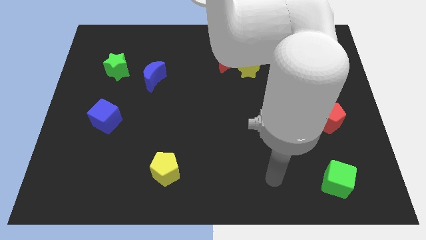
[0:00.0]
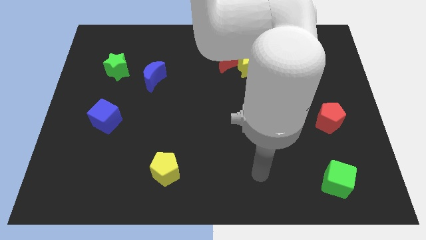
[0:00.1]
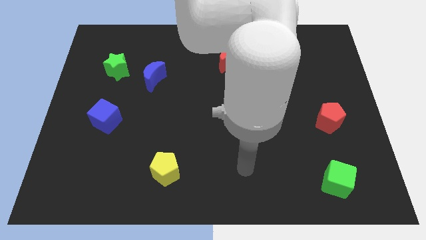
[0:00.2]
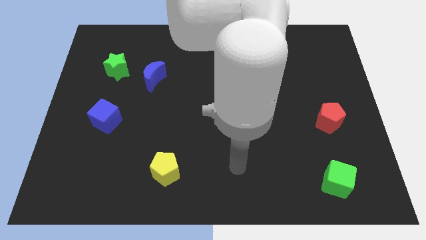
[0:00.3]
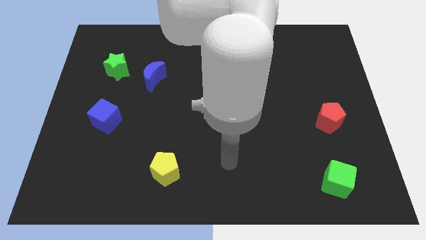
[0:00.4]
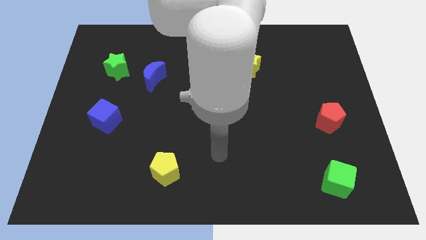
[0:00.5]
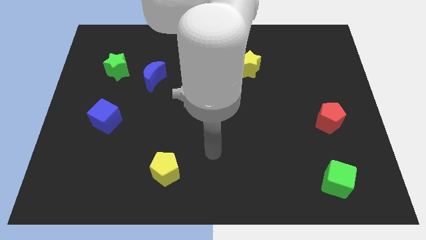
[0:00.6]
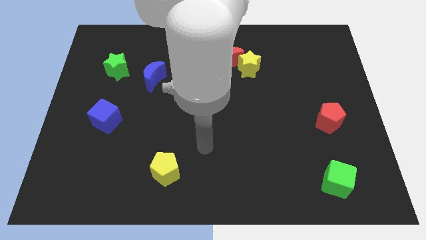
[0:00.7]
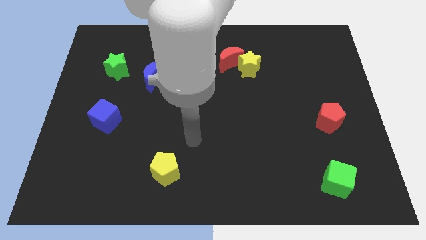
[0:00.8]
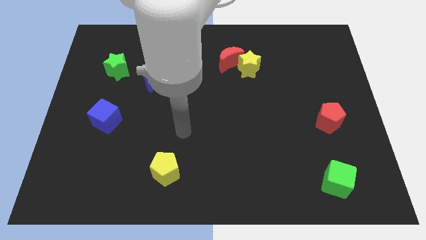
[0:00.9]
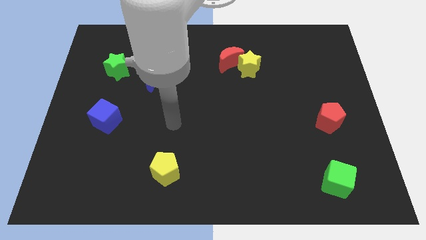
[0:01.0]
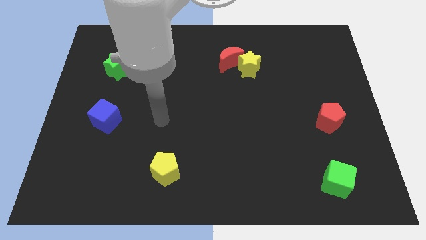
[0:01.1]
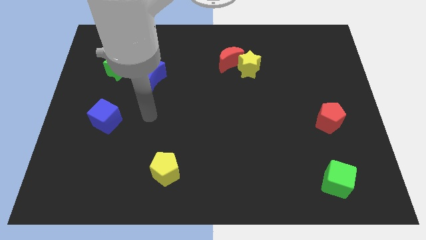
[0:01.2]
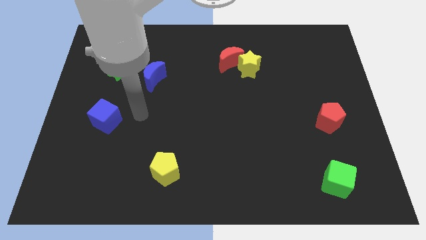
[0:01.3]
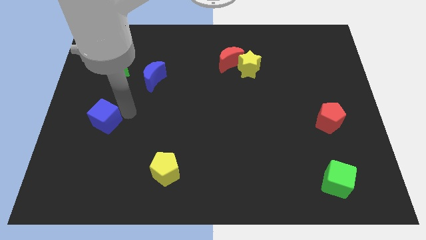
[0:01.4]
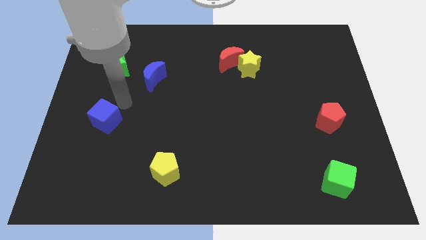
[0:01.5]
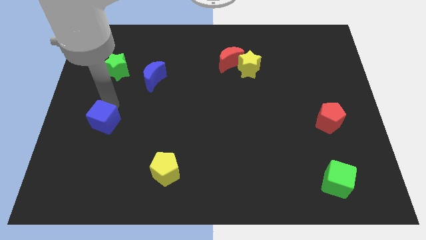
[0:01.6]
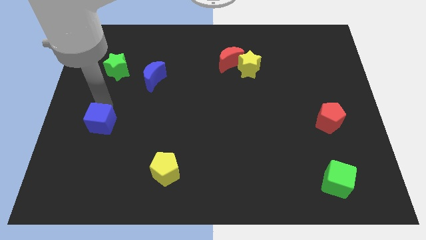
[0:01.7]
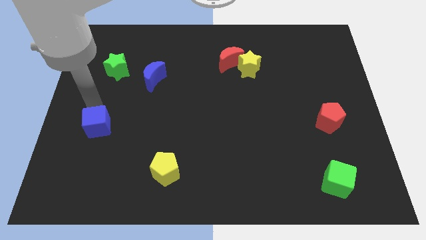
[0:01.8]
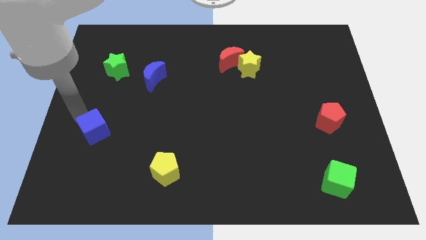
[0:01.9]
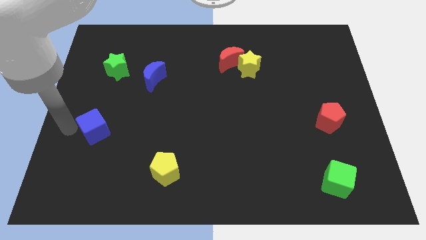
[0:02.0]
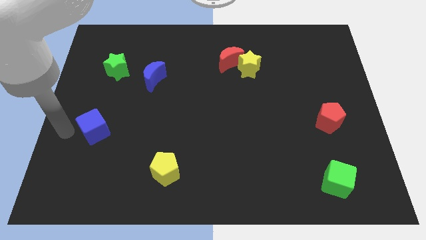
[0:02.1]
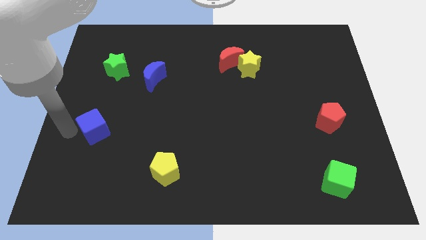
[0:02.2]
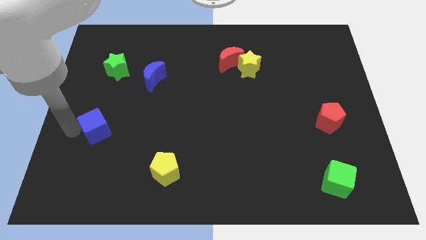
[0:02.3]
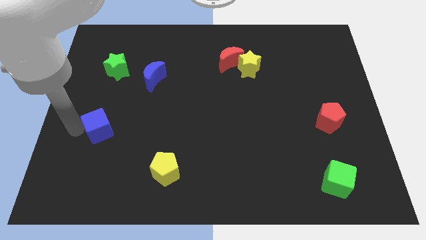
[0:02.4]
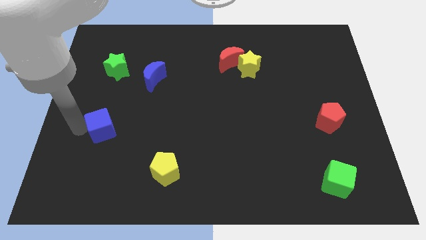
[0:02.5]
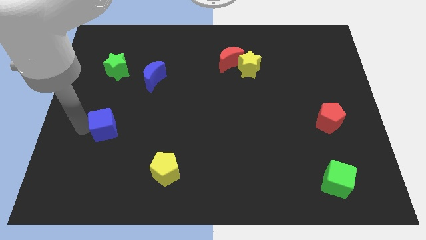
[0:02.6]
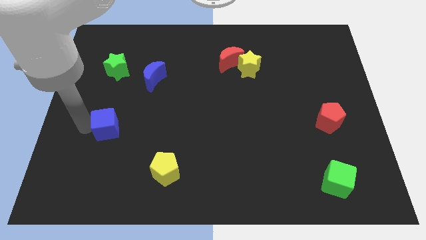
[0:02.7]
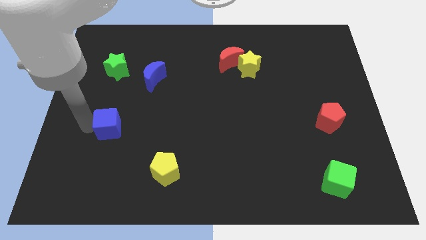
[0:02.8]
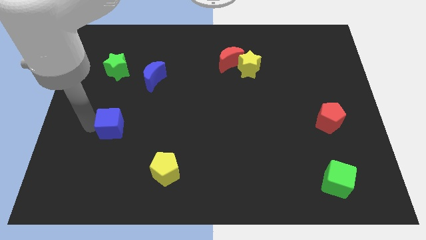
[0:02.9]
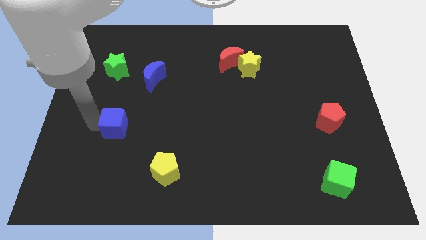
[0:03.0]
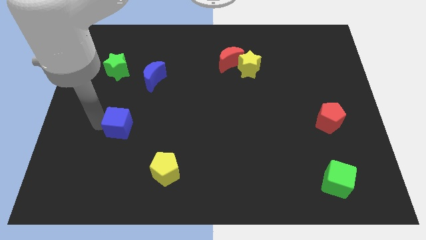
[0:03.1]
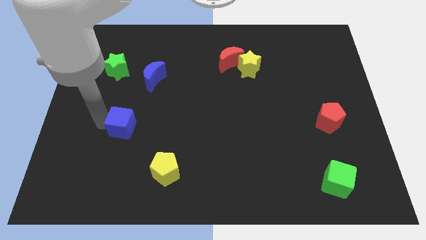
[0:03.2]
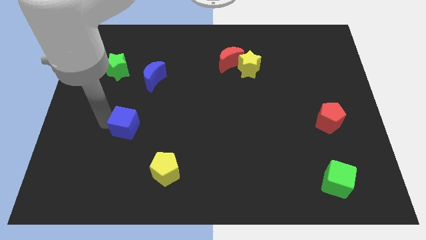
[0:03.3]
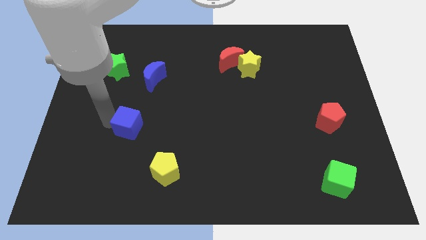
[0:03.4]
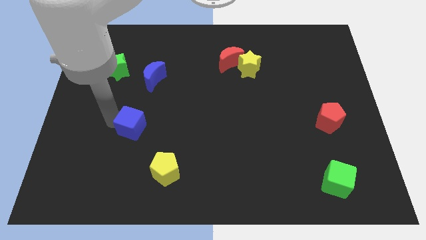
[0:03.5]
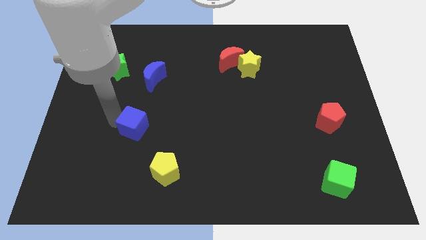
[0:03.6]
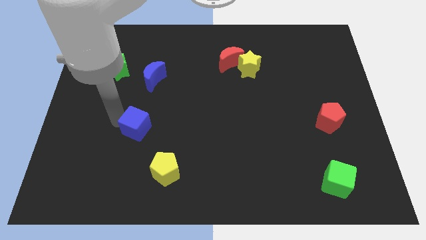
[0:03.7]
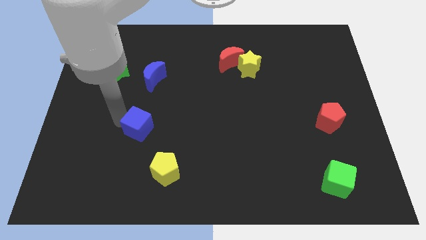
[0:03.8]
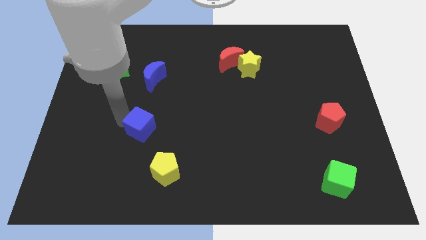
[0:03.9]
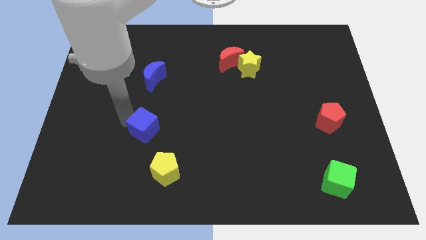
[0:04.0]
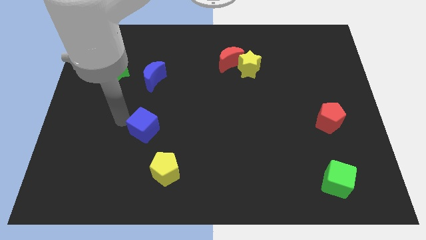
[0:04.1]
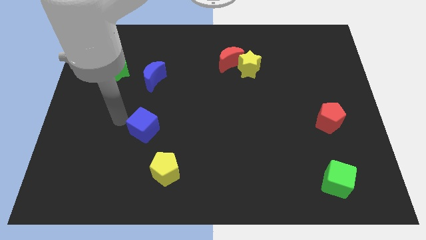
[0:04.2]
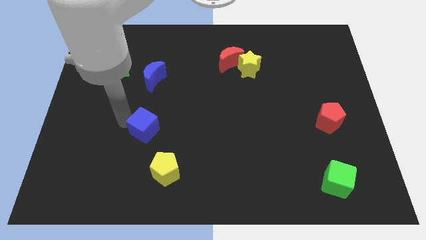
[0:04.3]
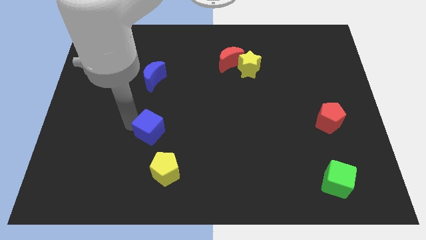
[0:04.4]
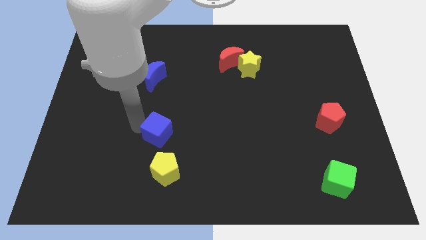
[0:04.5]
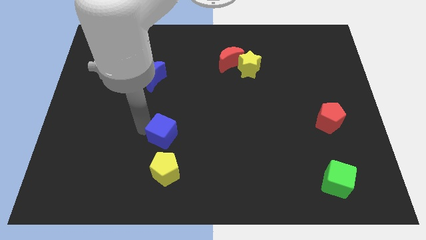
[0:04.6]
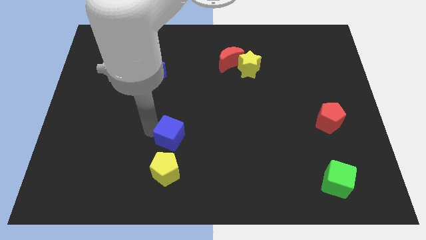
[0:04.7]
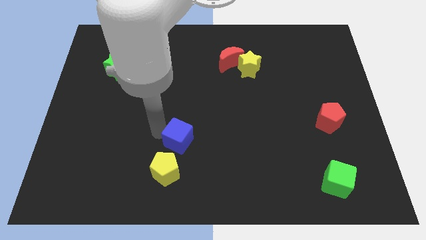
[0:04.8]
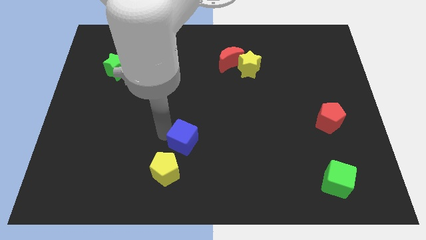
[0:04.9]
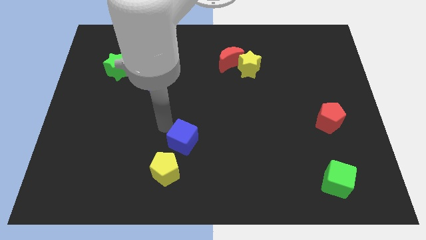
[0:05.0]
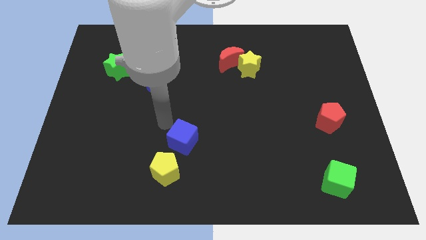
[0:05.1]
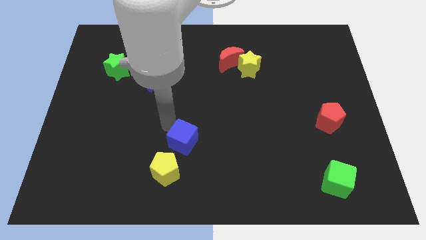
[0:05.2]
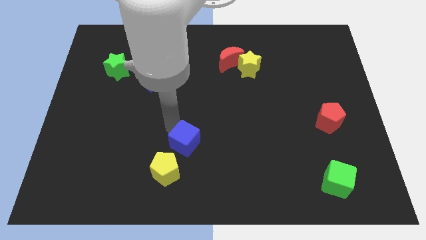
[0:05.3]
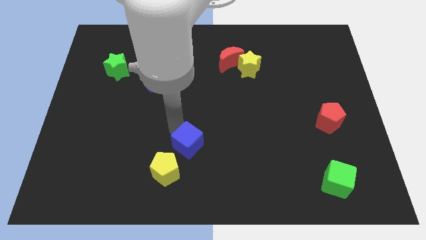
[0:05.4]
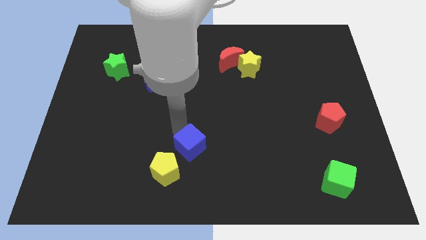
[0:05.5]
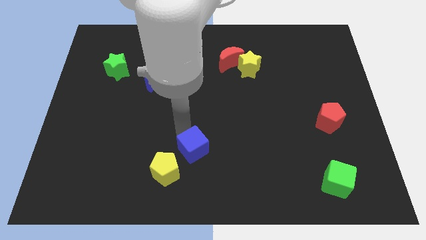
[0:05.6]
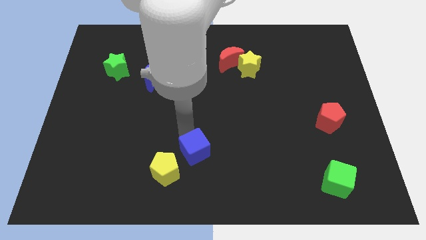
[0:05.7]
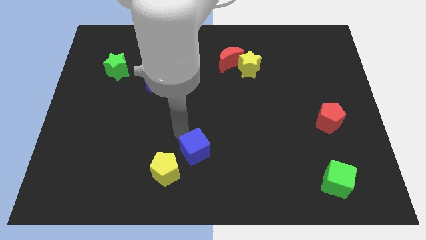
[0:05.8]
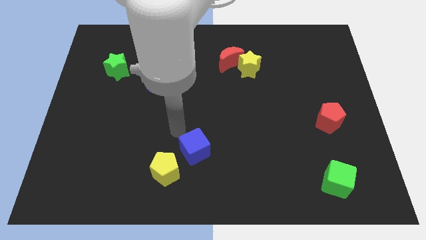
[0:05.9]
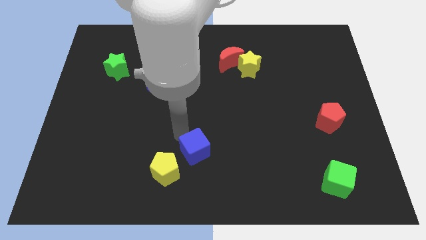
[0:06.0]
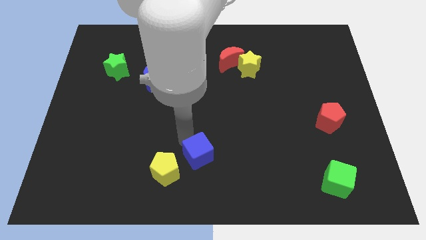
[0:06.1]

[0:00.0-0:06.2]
move the blue cube to the right of the yellow pentagon

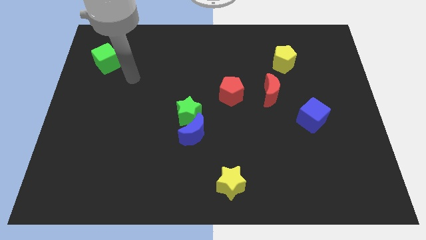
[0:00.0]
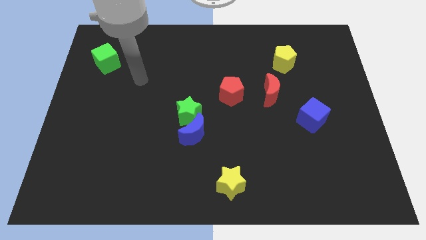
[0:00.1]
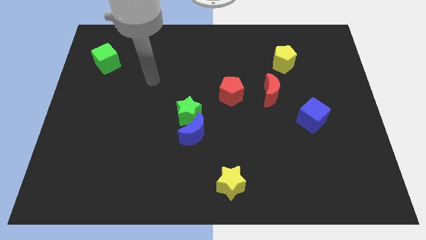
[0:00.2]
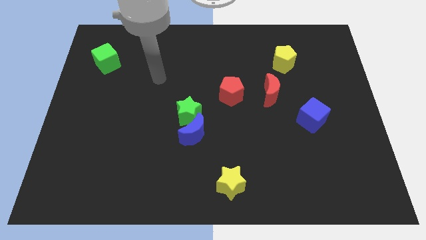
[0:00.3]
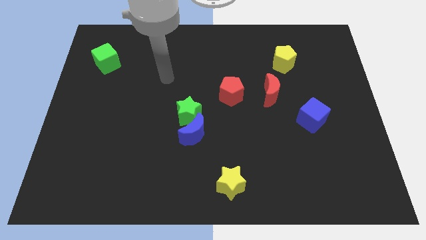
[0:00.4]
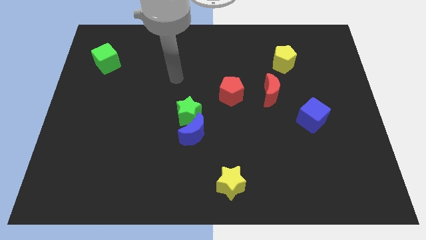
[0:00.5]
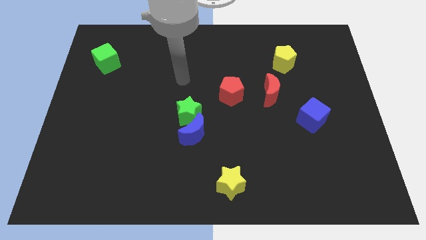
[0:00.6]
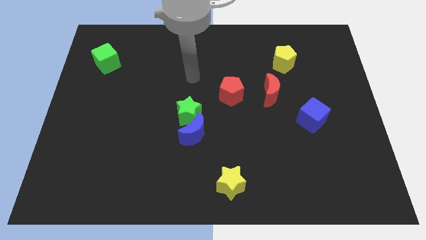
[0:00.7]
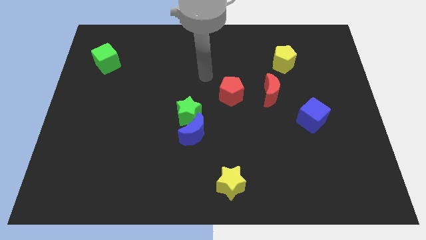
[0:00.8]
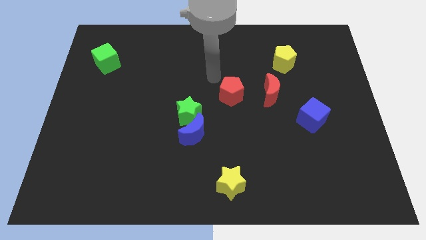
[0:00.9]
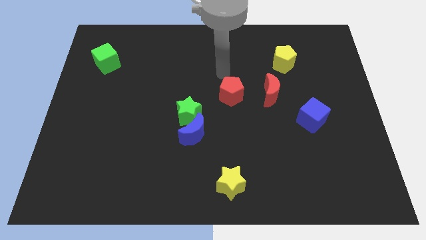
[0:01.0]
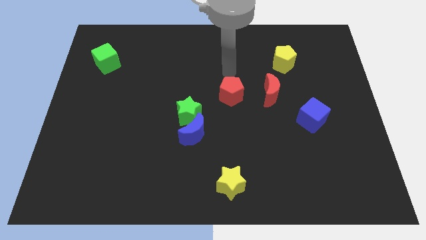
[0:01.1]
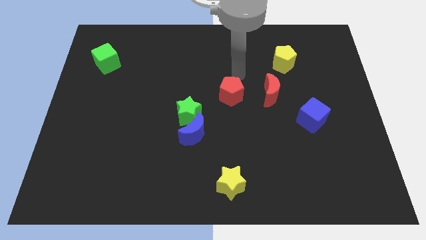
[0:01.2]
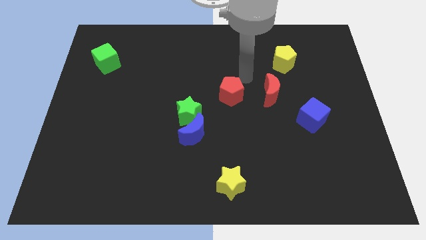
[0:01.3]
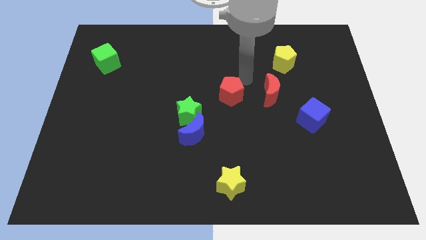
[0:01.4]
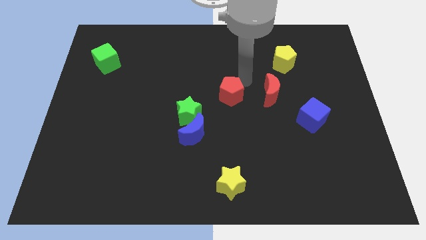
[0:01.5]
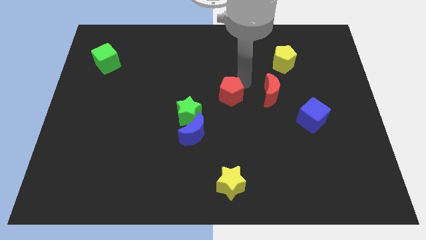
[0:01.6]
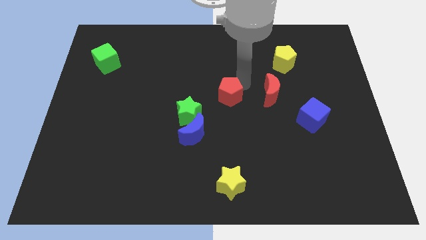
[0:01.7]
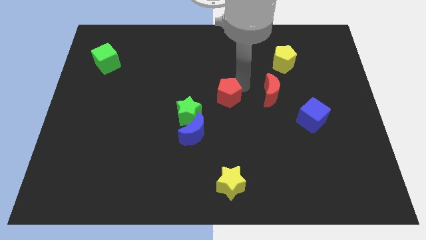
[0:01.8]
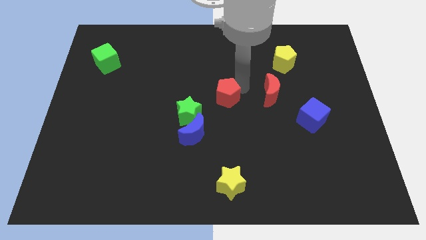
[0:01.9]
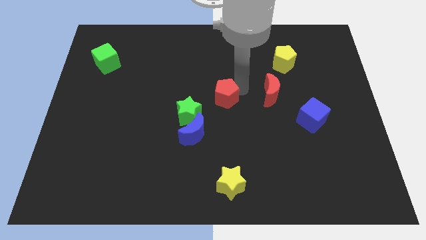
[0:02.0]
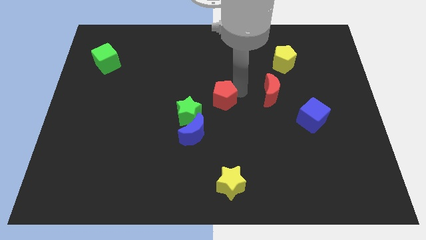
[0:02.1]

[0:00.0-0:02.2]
move the red pentagon to the top right of the blue moon
